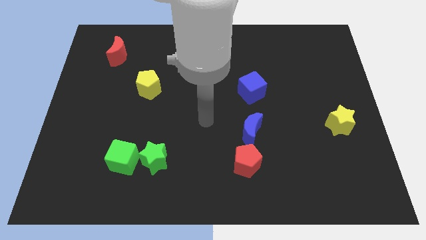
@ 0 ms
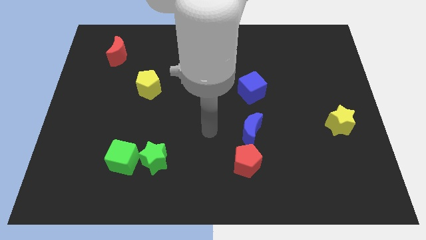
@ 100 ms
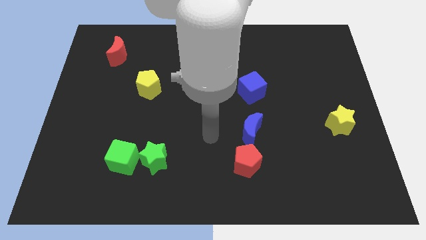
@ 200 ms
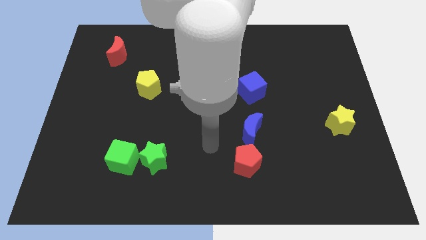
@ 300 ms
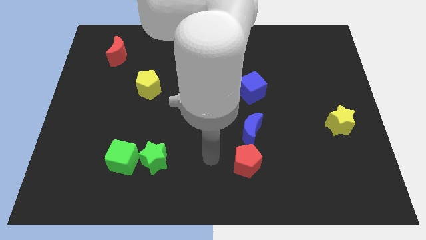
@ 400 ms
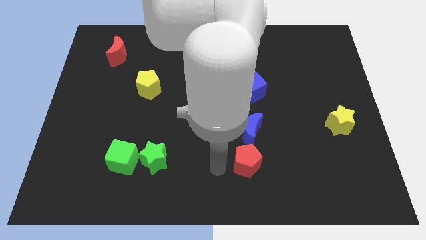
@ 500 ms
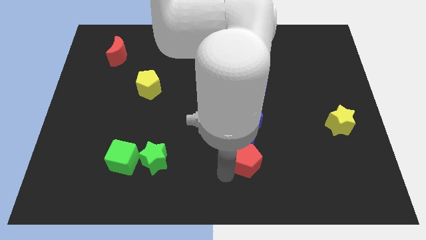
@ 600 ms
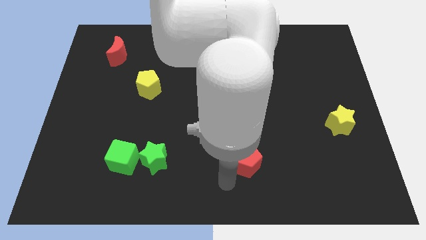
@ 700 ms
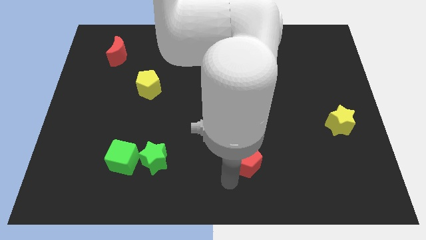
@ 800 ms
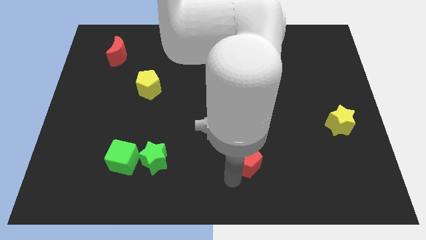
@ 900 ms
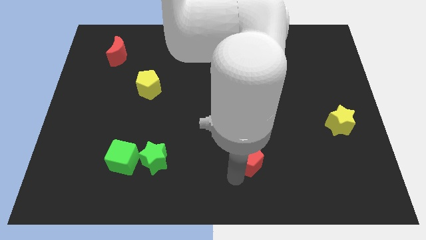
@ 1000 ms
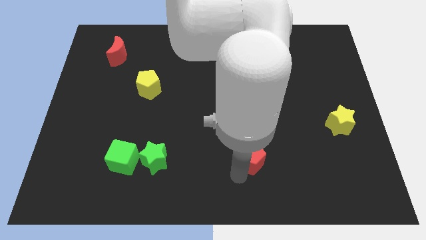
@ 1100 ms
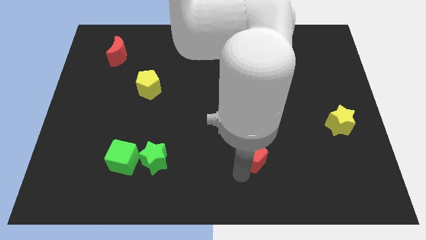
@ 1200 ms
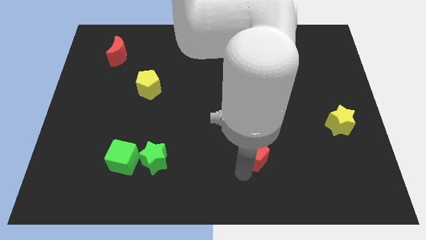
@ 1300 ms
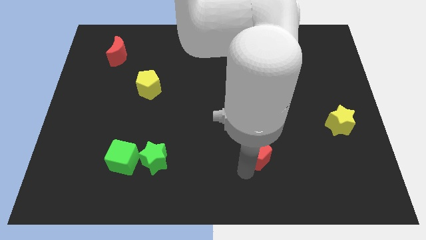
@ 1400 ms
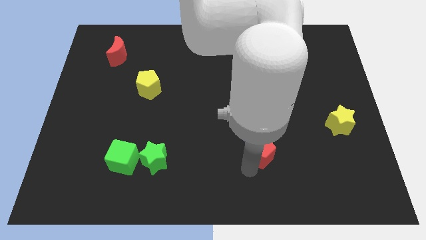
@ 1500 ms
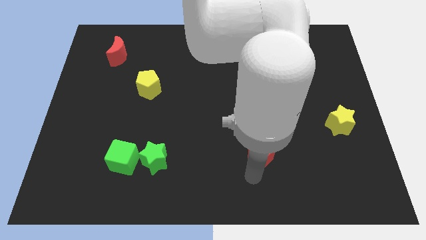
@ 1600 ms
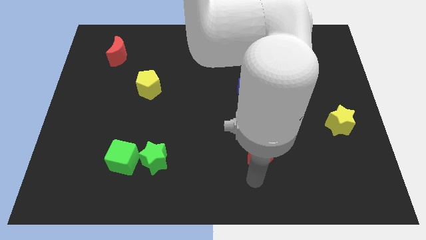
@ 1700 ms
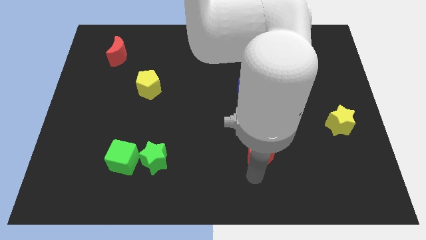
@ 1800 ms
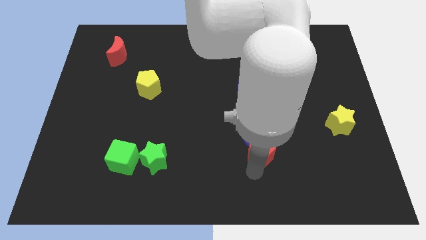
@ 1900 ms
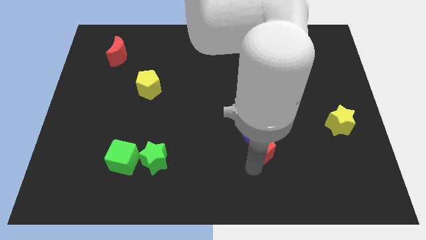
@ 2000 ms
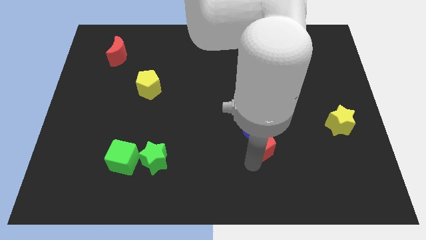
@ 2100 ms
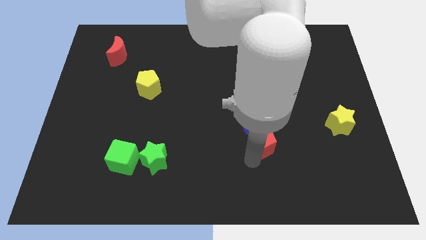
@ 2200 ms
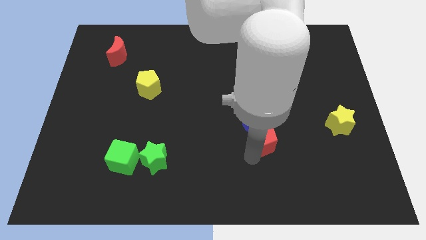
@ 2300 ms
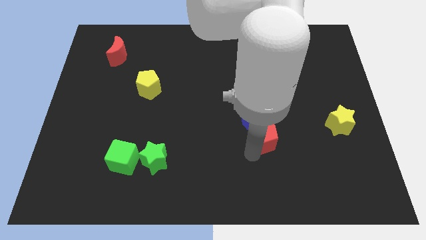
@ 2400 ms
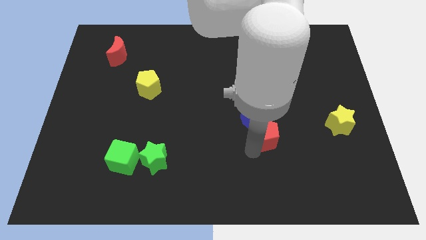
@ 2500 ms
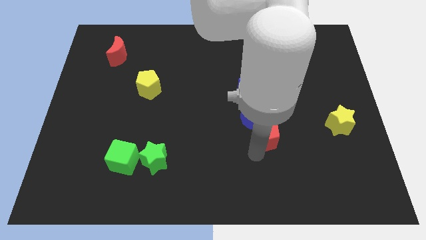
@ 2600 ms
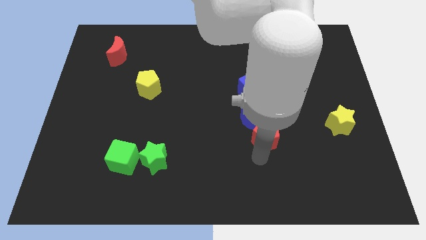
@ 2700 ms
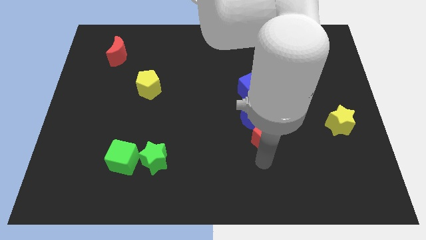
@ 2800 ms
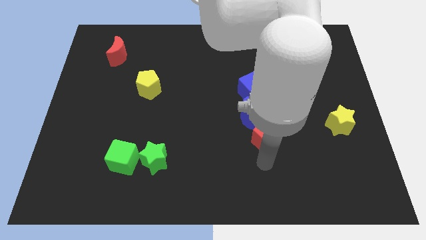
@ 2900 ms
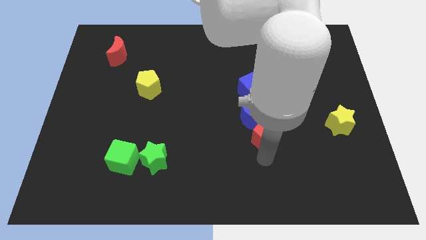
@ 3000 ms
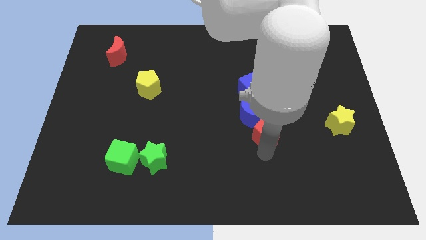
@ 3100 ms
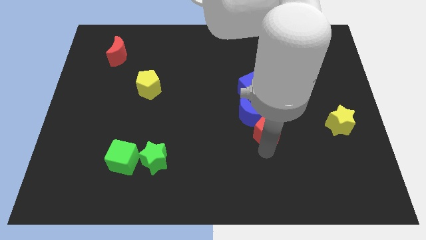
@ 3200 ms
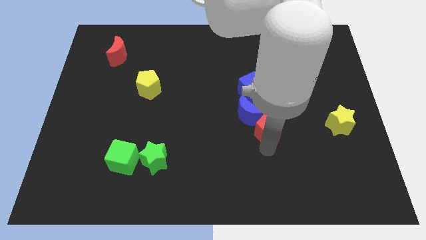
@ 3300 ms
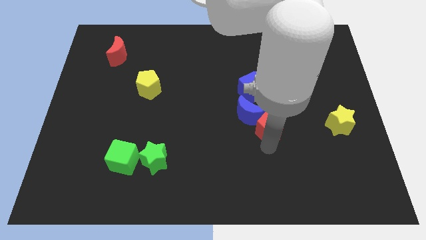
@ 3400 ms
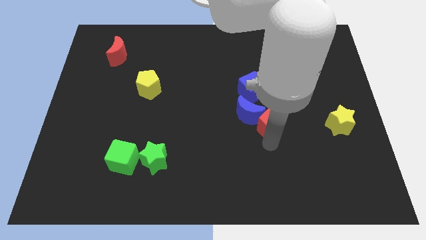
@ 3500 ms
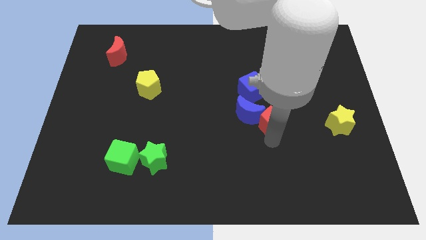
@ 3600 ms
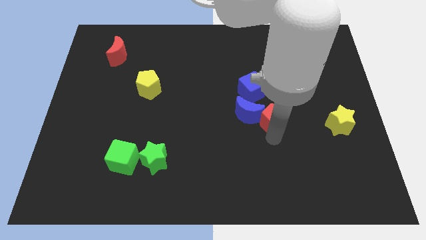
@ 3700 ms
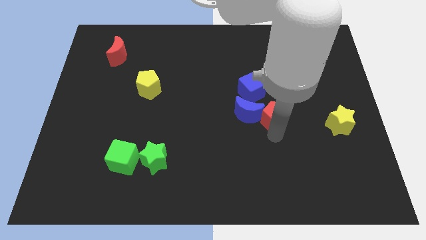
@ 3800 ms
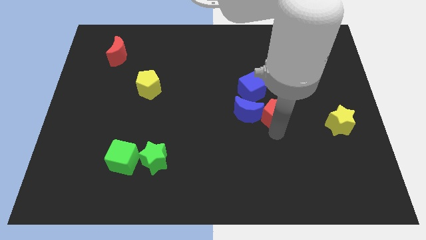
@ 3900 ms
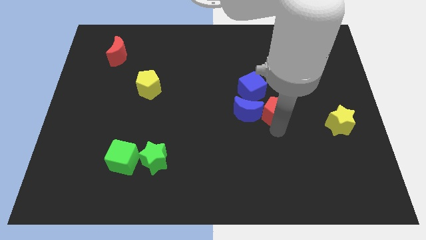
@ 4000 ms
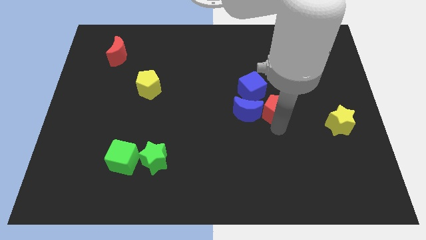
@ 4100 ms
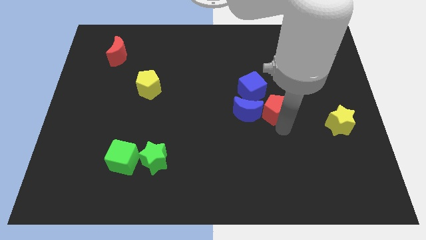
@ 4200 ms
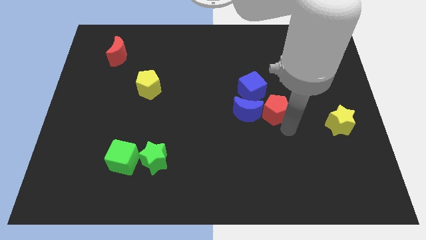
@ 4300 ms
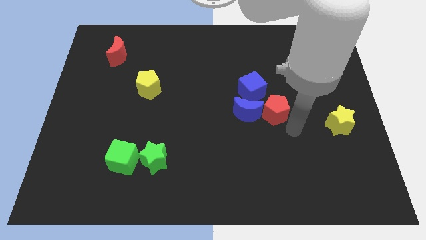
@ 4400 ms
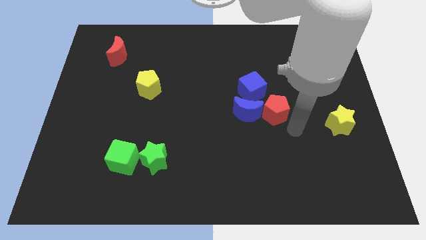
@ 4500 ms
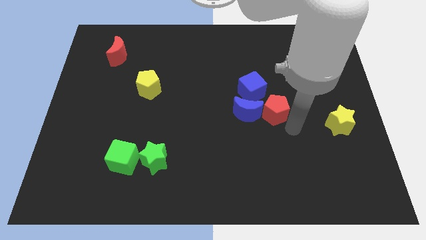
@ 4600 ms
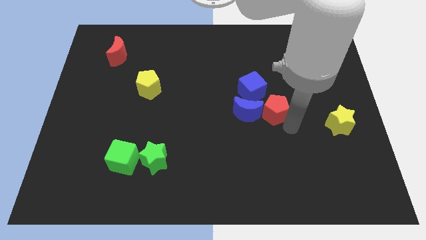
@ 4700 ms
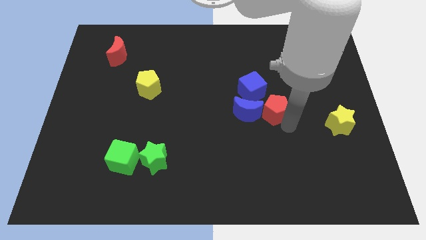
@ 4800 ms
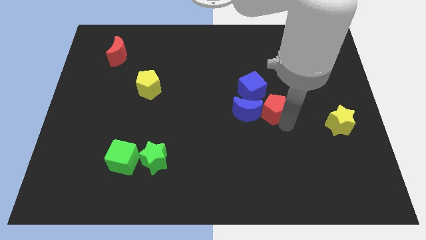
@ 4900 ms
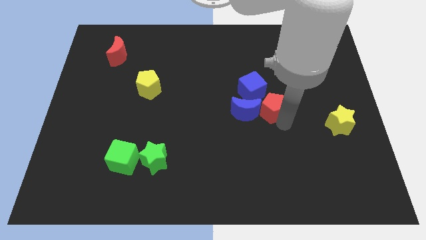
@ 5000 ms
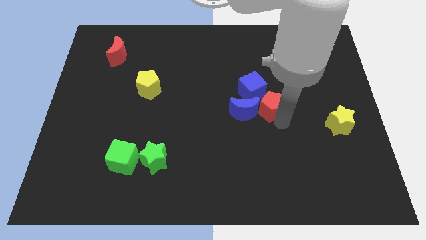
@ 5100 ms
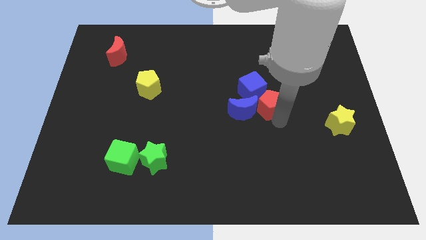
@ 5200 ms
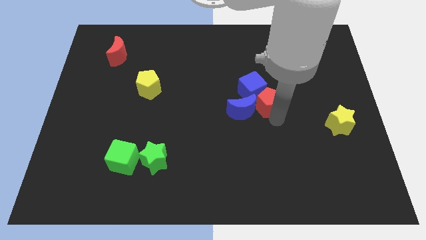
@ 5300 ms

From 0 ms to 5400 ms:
put the red pentagon close to the blue cube

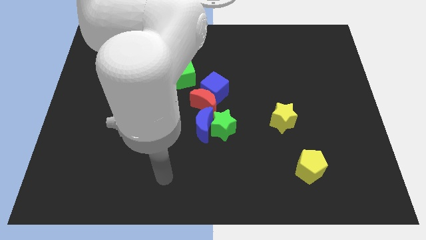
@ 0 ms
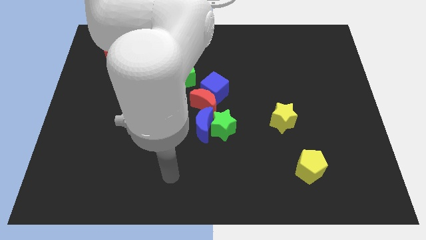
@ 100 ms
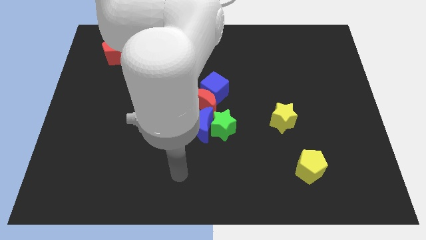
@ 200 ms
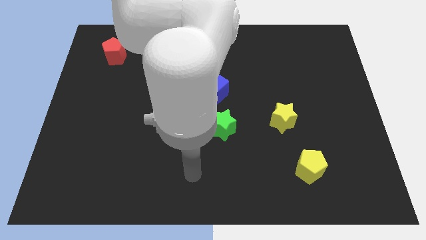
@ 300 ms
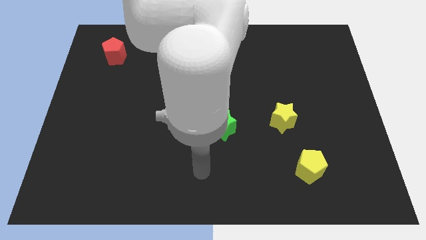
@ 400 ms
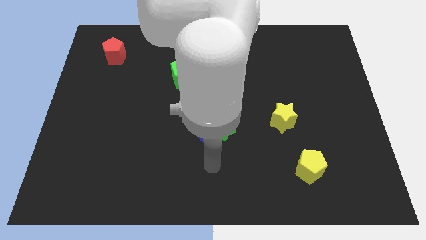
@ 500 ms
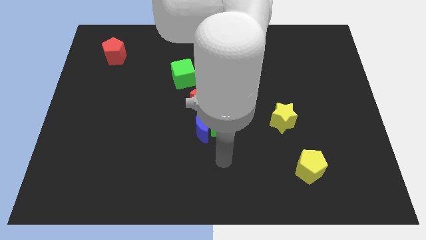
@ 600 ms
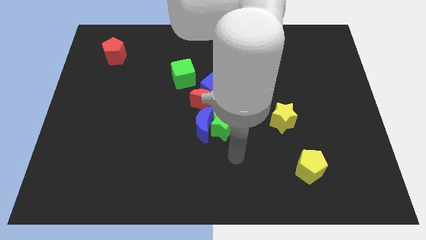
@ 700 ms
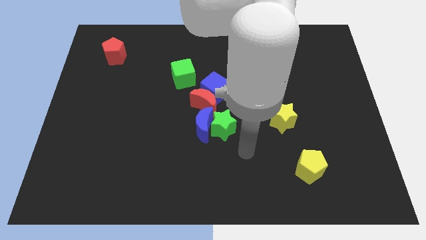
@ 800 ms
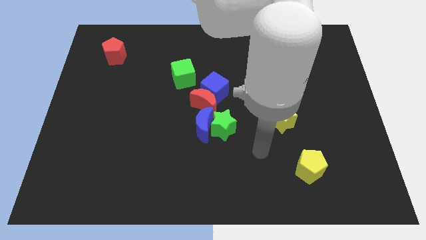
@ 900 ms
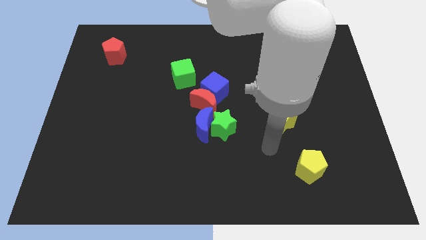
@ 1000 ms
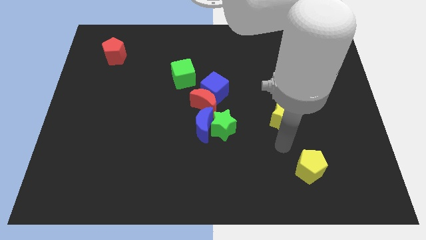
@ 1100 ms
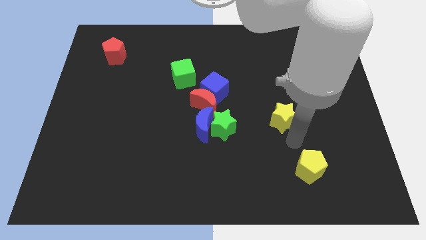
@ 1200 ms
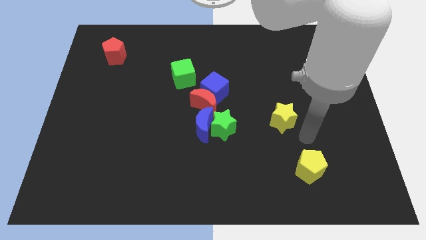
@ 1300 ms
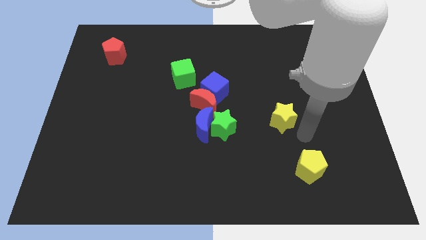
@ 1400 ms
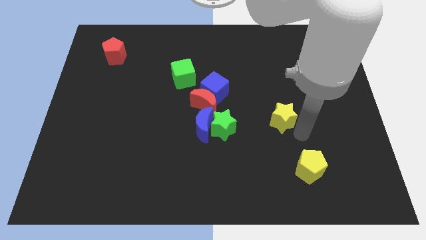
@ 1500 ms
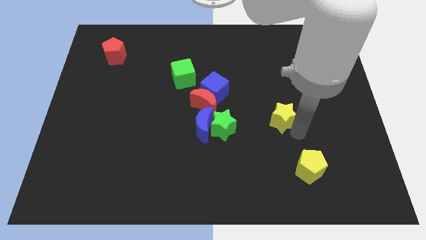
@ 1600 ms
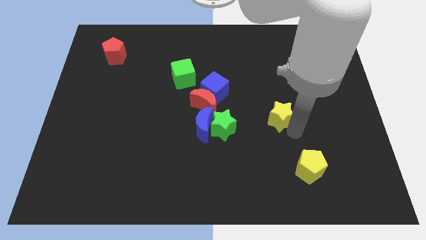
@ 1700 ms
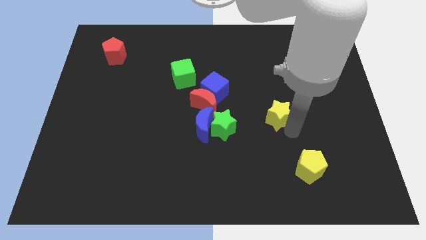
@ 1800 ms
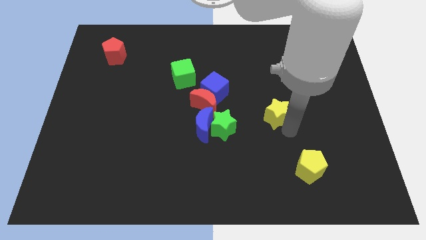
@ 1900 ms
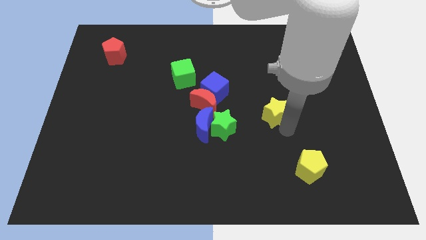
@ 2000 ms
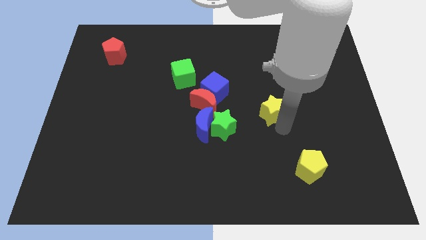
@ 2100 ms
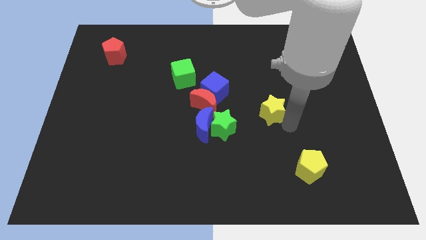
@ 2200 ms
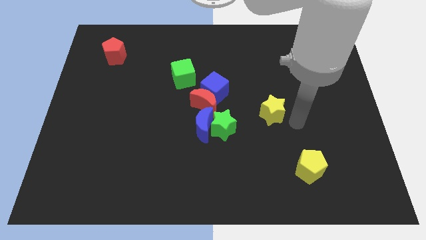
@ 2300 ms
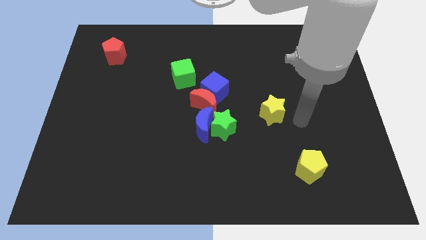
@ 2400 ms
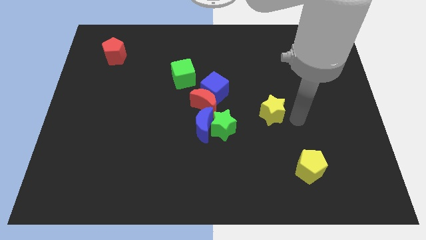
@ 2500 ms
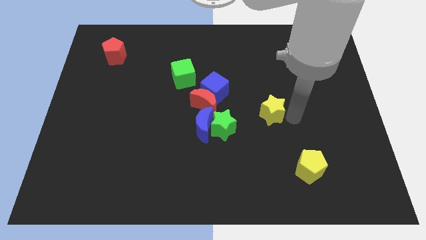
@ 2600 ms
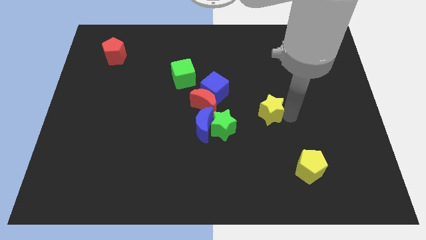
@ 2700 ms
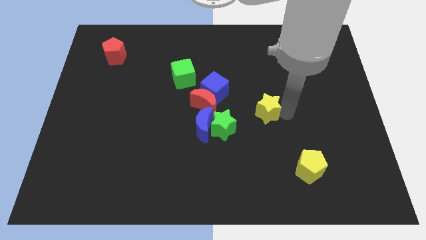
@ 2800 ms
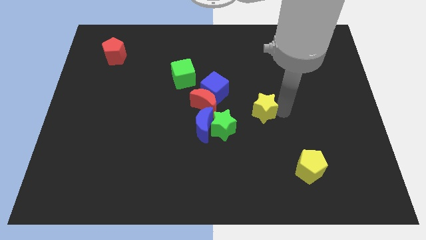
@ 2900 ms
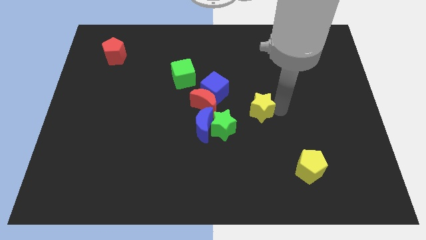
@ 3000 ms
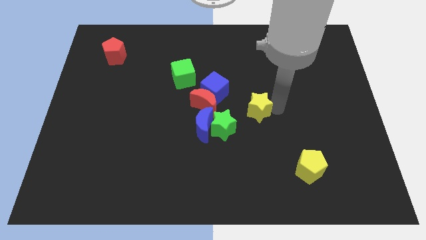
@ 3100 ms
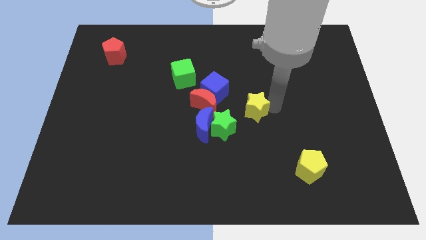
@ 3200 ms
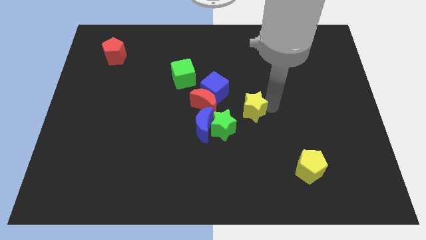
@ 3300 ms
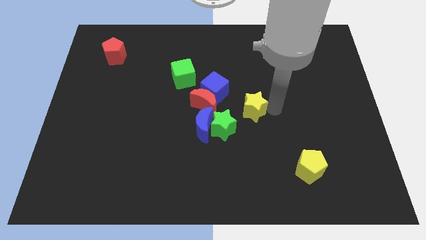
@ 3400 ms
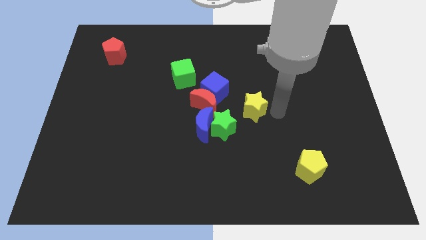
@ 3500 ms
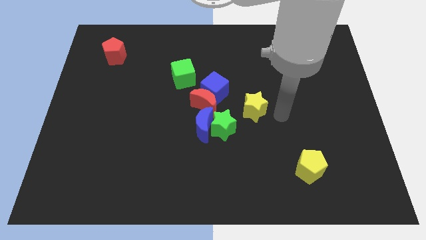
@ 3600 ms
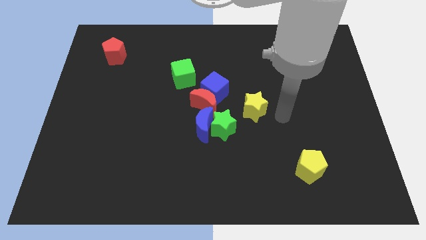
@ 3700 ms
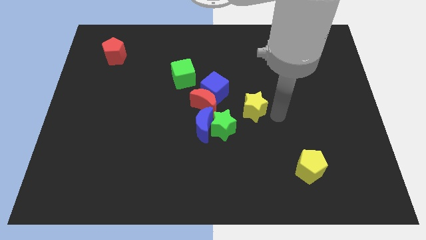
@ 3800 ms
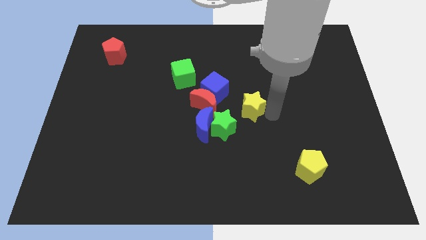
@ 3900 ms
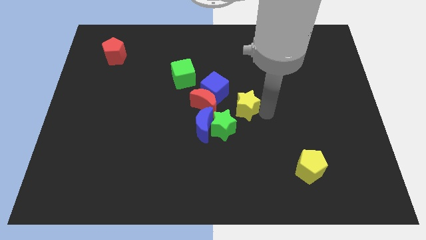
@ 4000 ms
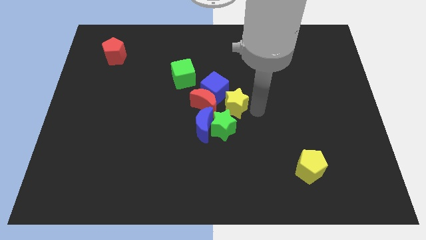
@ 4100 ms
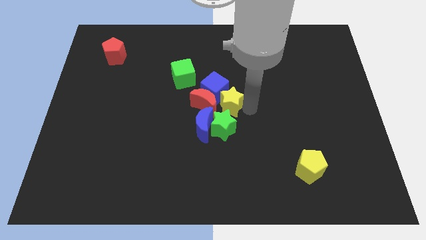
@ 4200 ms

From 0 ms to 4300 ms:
push the yellow star to the red moon
